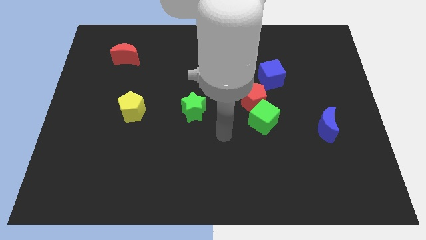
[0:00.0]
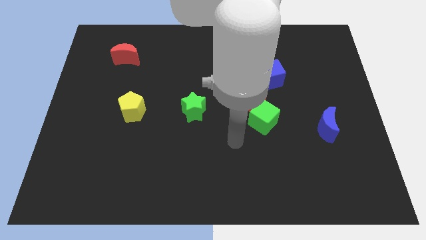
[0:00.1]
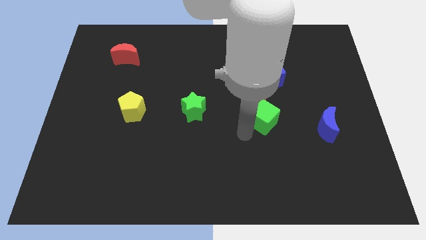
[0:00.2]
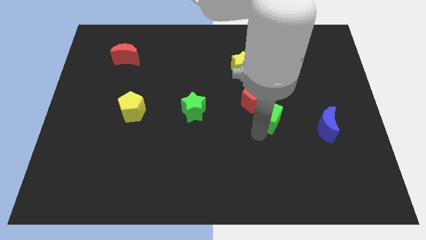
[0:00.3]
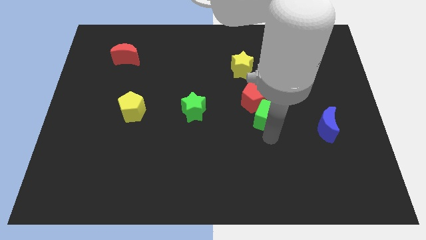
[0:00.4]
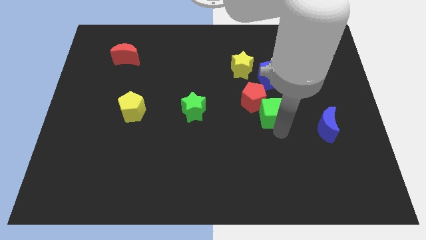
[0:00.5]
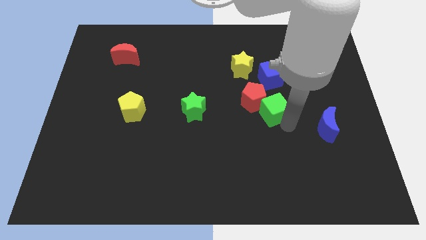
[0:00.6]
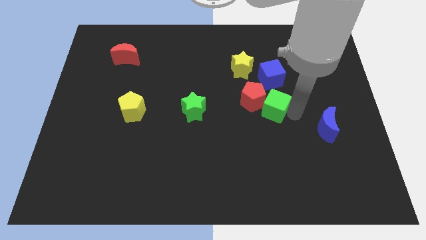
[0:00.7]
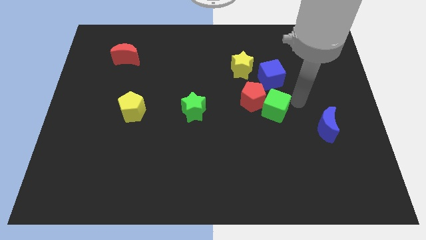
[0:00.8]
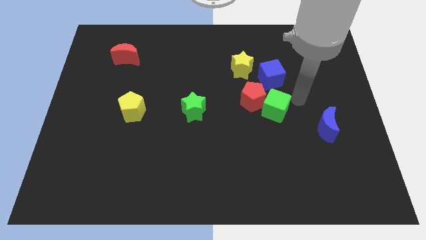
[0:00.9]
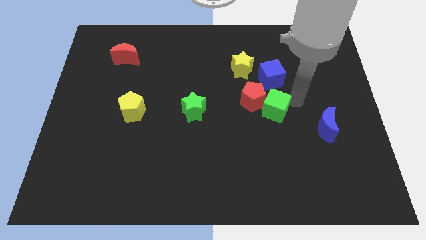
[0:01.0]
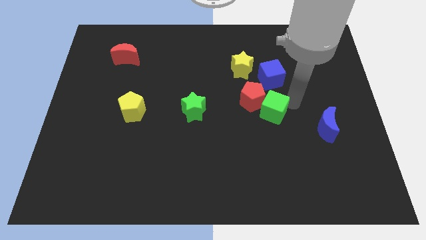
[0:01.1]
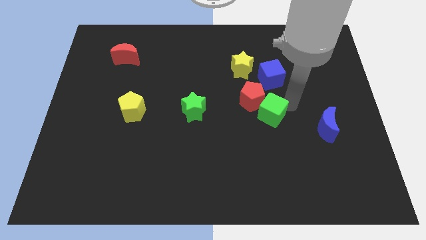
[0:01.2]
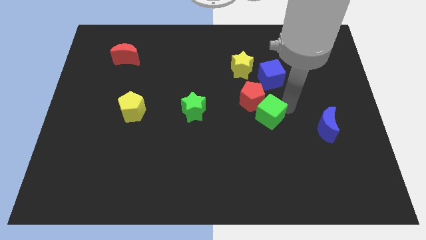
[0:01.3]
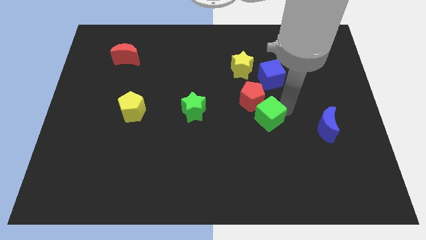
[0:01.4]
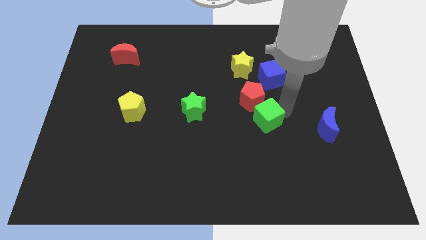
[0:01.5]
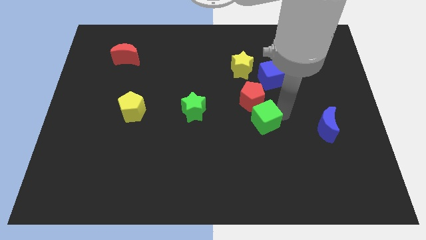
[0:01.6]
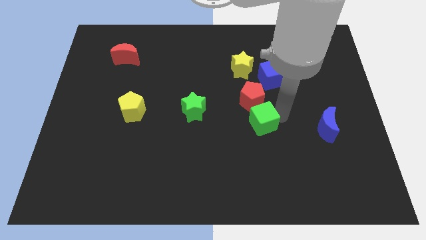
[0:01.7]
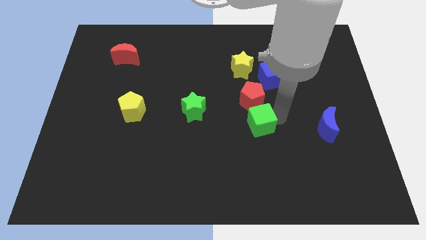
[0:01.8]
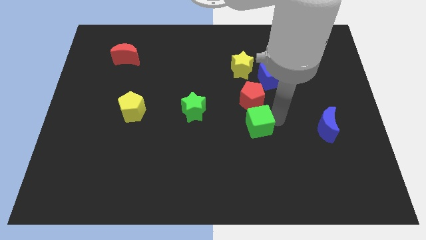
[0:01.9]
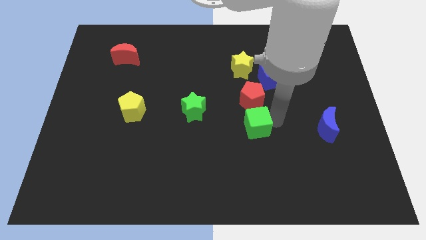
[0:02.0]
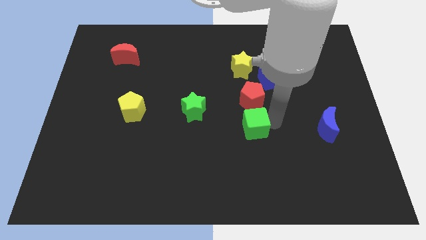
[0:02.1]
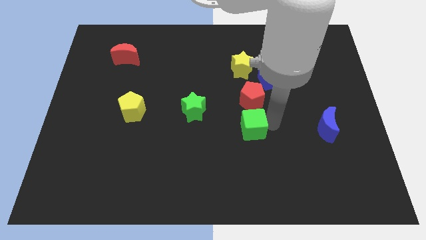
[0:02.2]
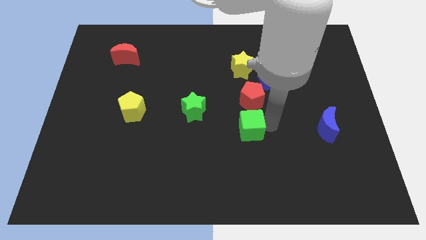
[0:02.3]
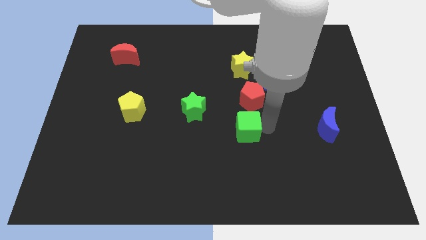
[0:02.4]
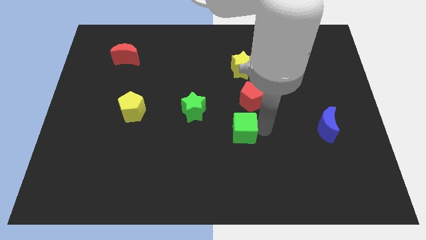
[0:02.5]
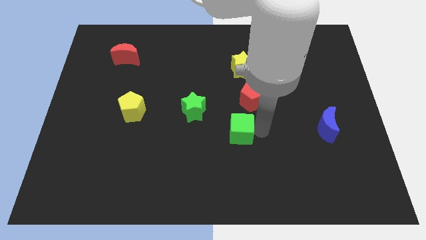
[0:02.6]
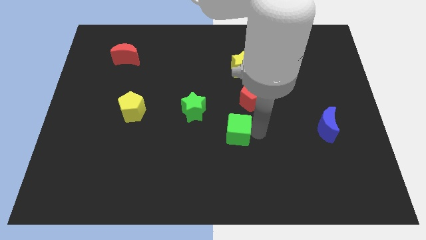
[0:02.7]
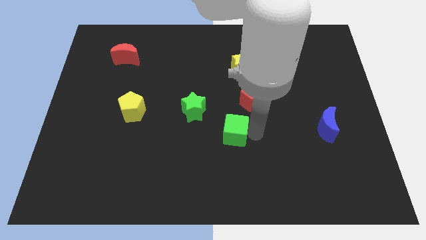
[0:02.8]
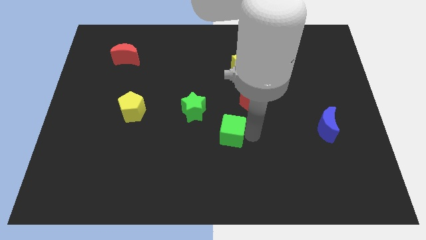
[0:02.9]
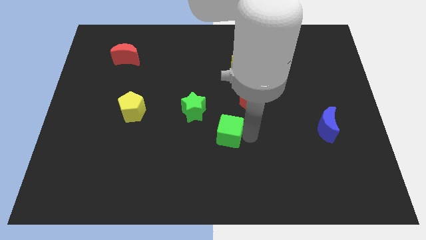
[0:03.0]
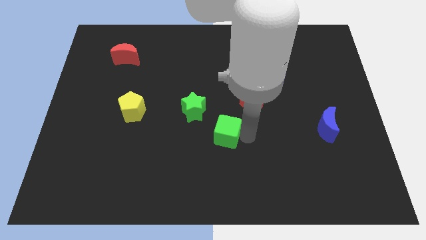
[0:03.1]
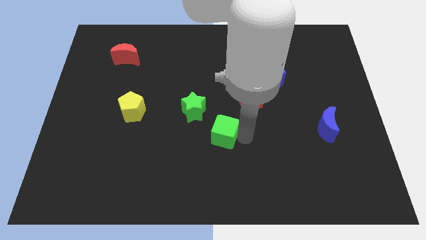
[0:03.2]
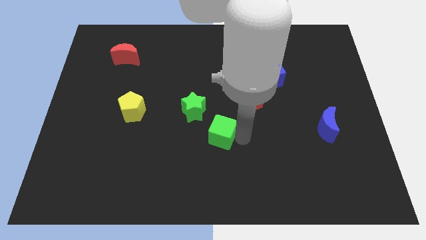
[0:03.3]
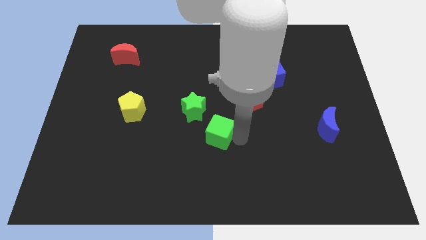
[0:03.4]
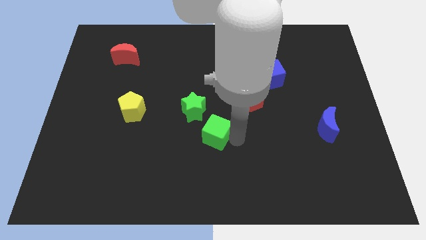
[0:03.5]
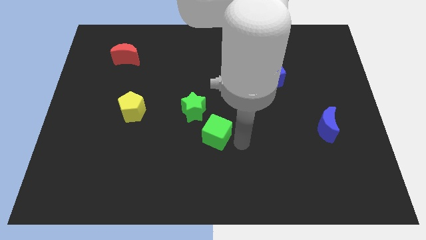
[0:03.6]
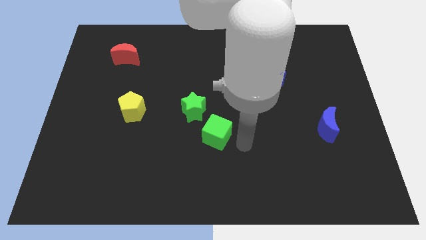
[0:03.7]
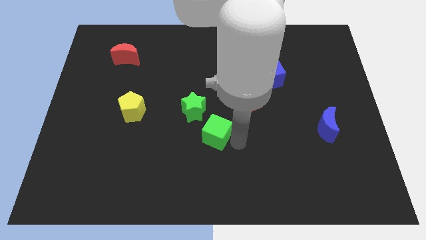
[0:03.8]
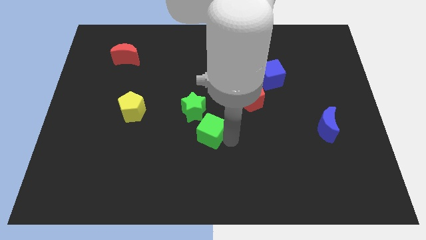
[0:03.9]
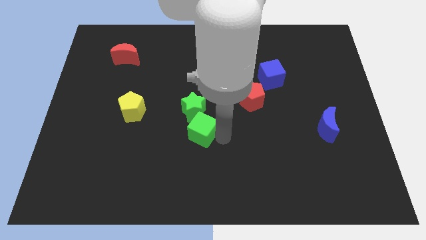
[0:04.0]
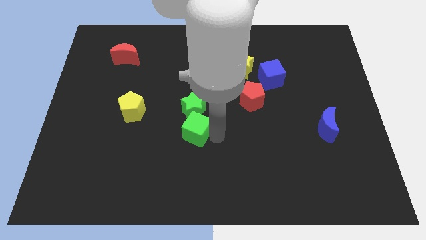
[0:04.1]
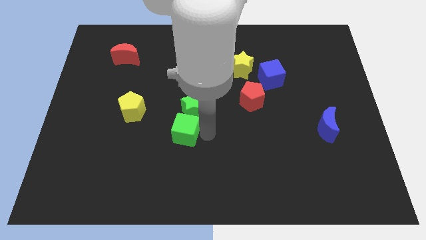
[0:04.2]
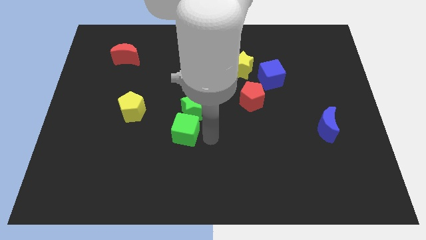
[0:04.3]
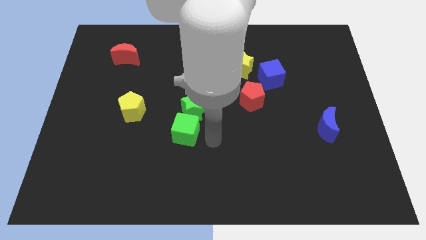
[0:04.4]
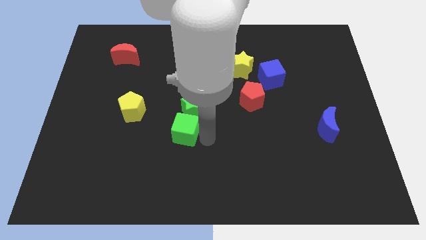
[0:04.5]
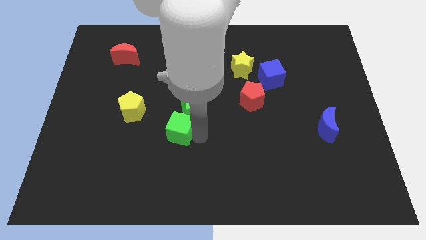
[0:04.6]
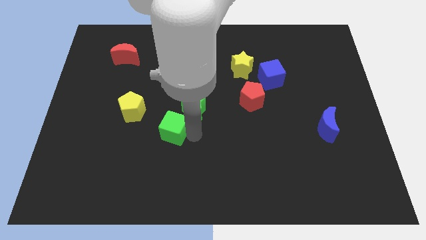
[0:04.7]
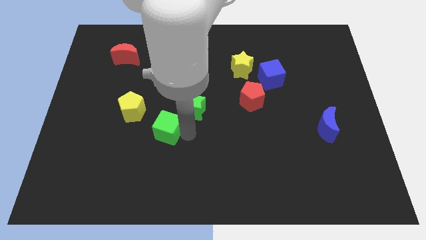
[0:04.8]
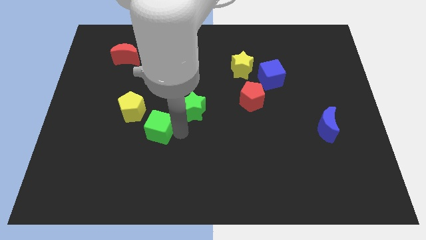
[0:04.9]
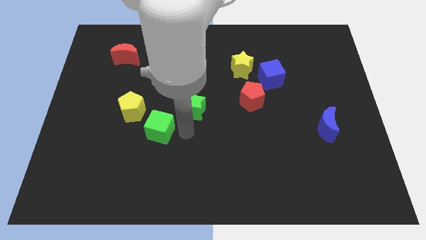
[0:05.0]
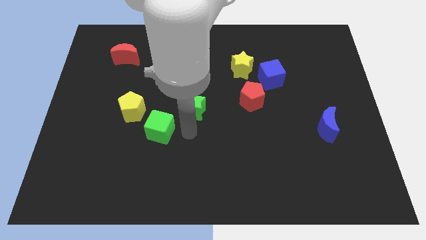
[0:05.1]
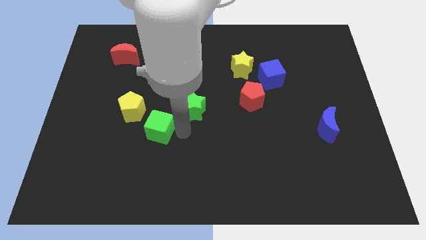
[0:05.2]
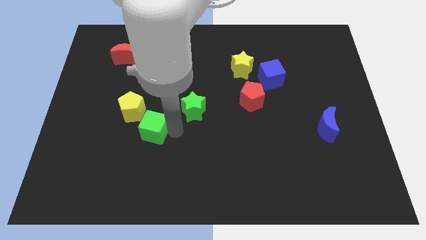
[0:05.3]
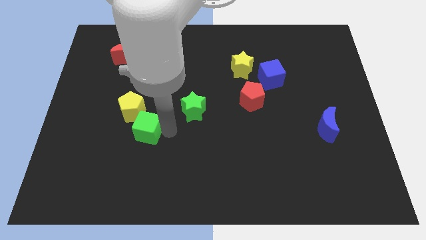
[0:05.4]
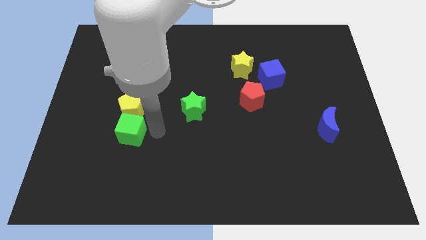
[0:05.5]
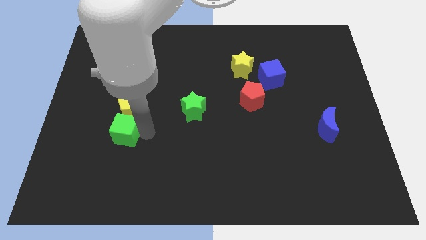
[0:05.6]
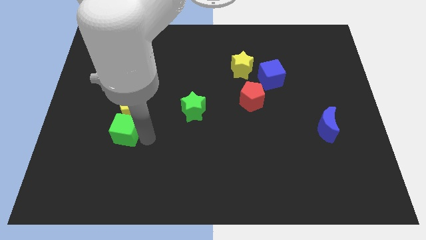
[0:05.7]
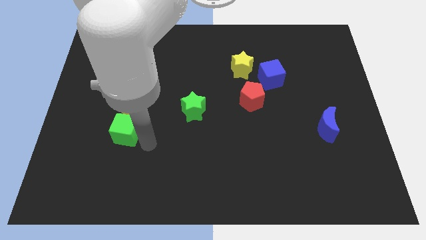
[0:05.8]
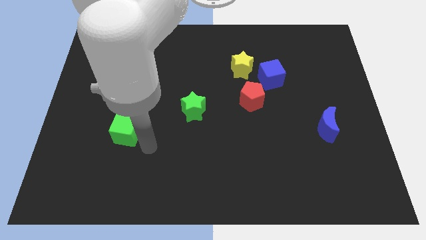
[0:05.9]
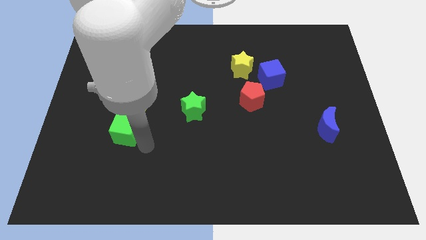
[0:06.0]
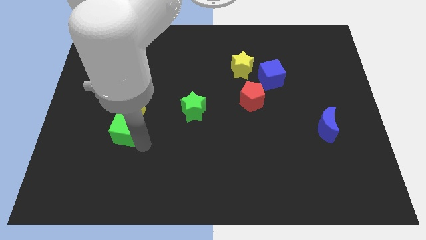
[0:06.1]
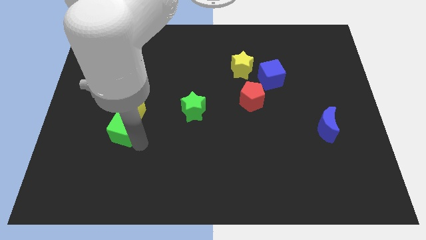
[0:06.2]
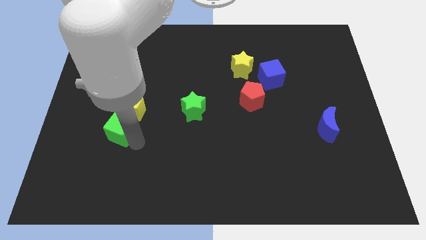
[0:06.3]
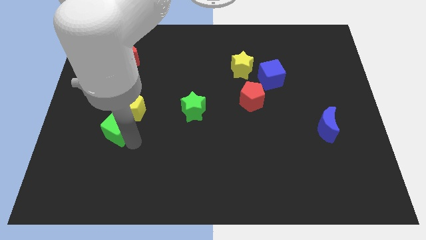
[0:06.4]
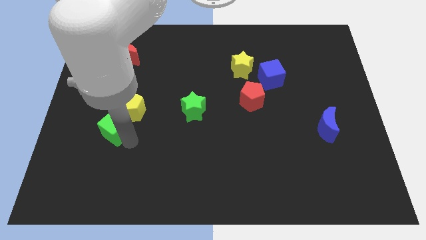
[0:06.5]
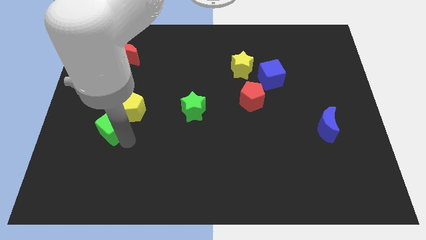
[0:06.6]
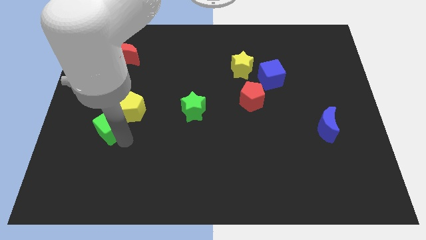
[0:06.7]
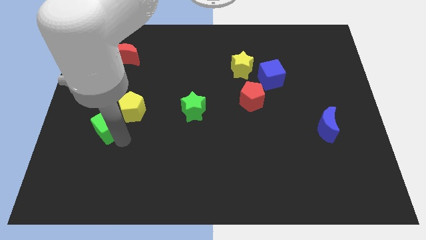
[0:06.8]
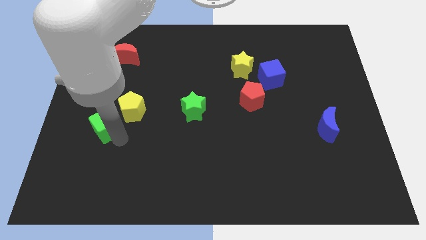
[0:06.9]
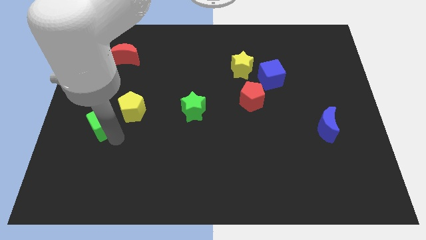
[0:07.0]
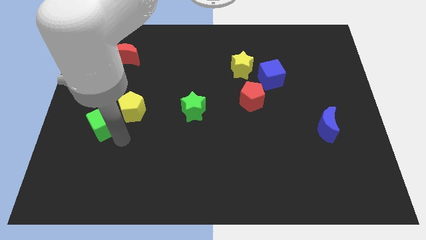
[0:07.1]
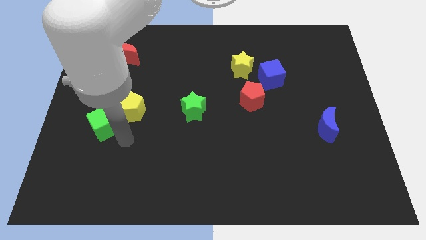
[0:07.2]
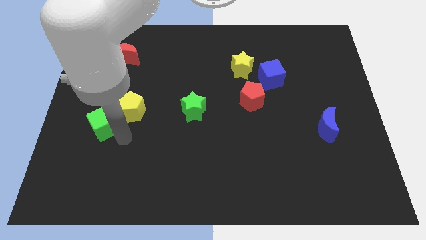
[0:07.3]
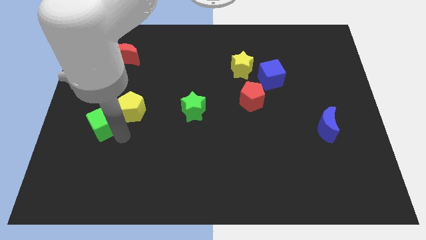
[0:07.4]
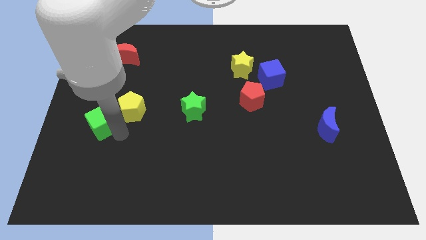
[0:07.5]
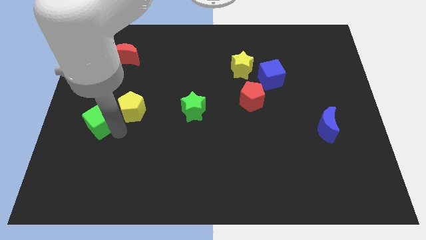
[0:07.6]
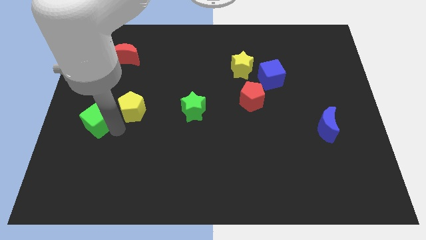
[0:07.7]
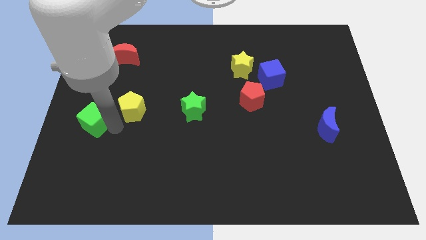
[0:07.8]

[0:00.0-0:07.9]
push the green cube to the center left
